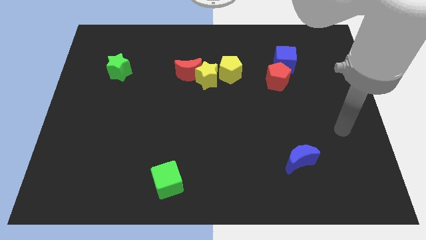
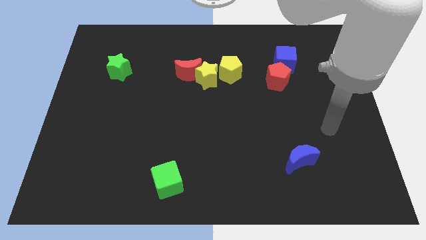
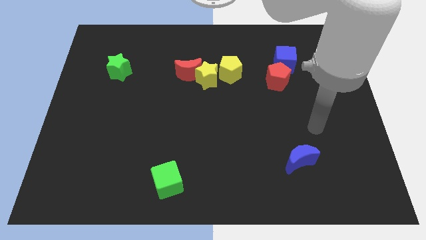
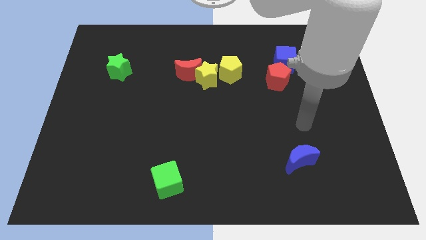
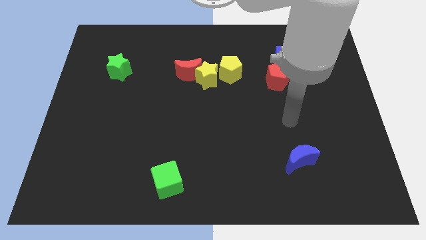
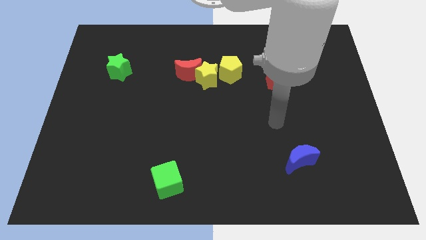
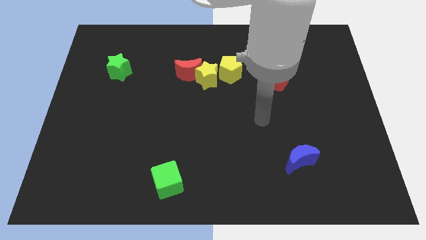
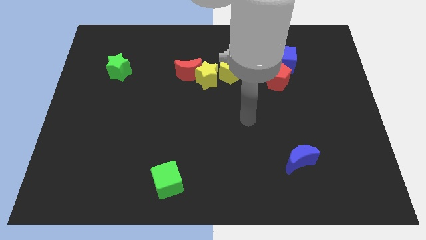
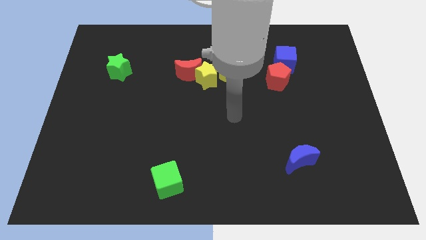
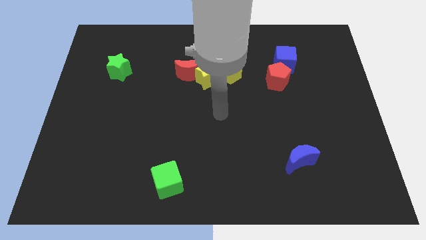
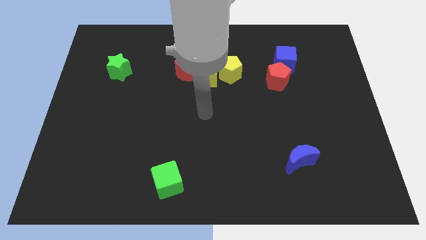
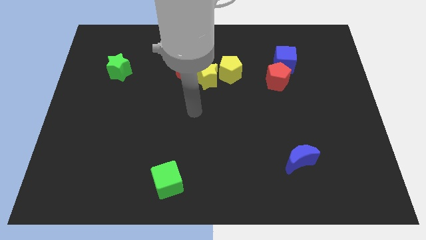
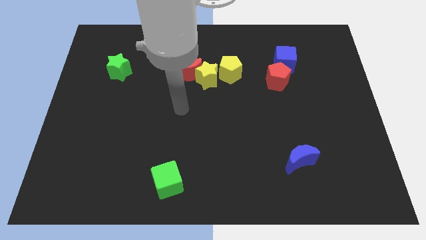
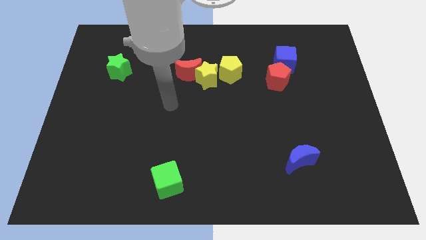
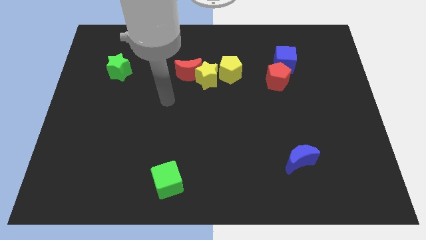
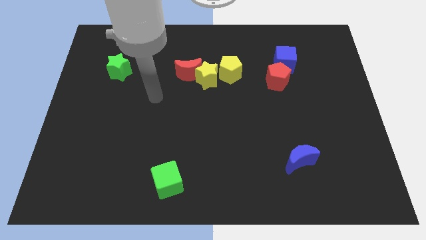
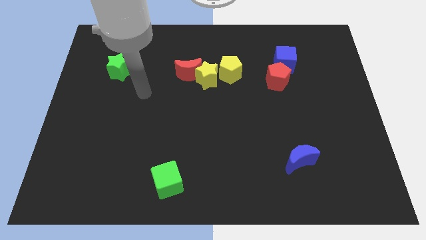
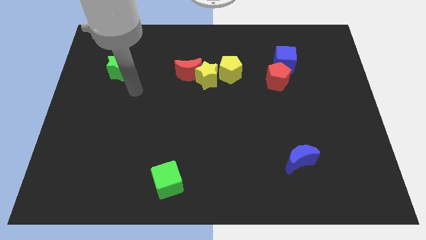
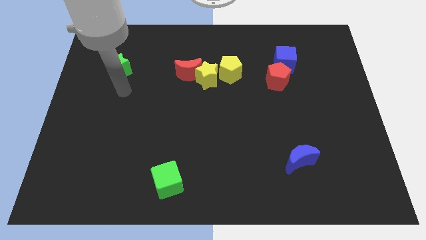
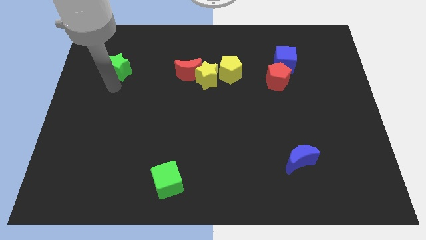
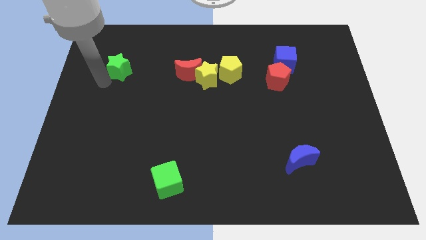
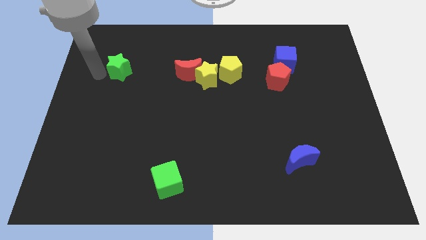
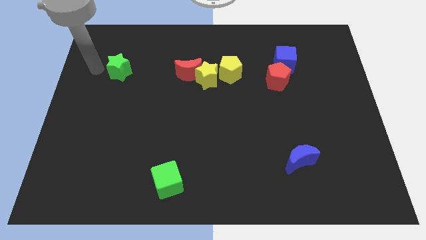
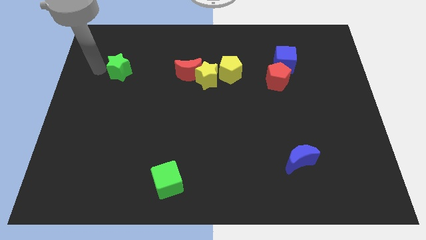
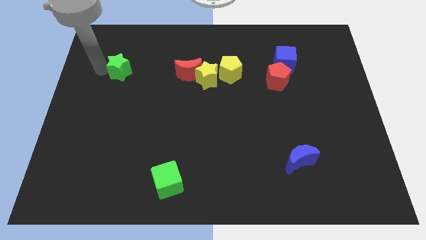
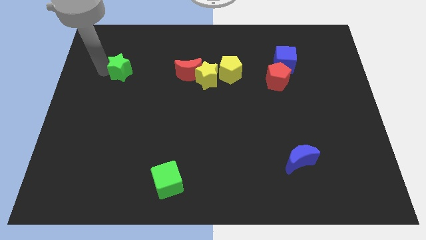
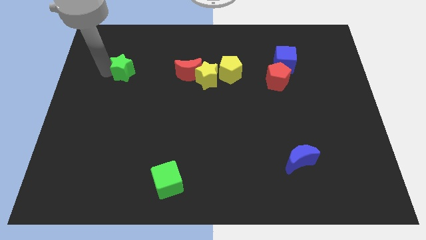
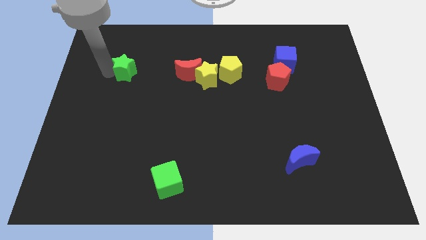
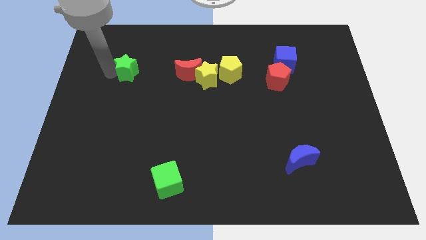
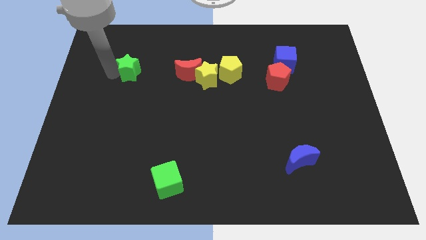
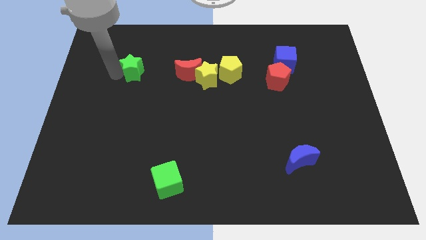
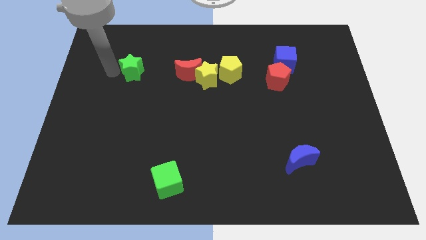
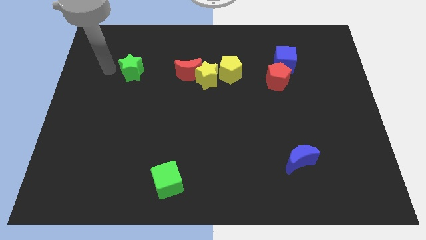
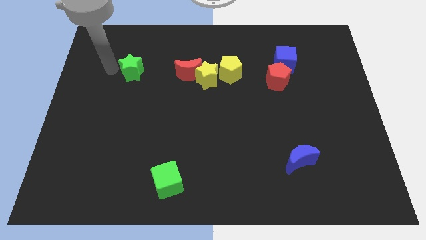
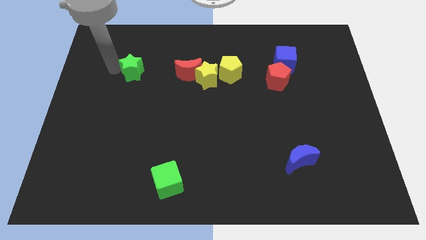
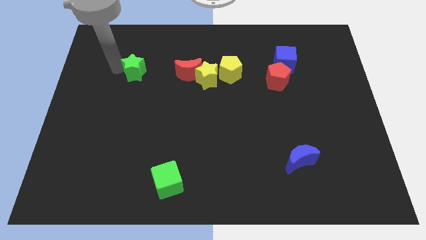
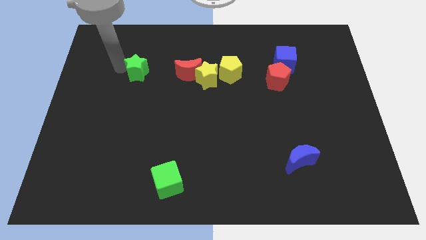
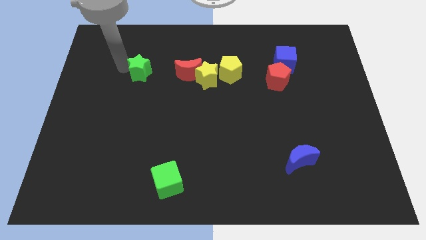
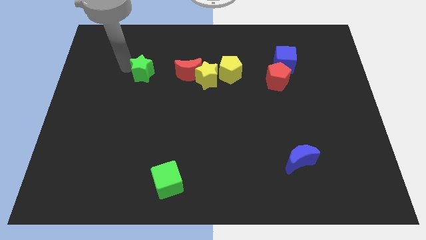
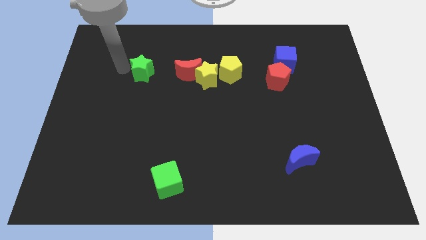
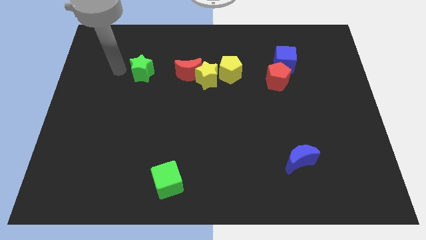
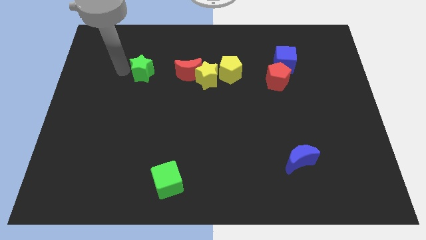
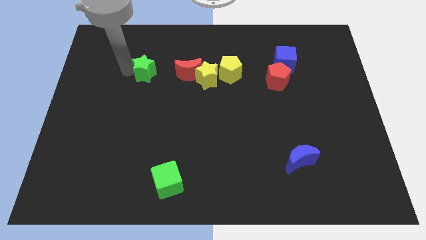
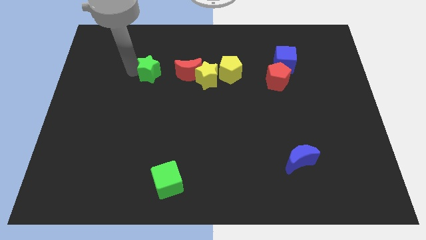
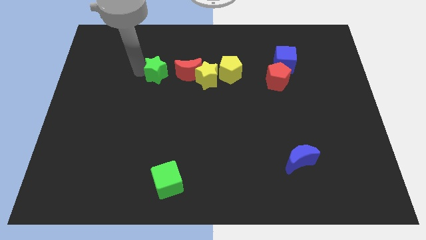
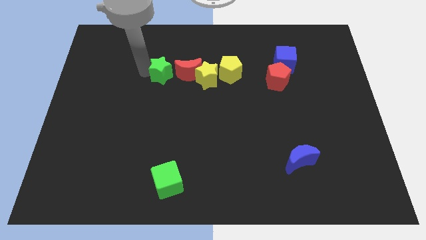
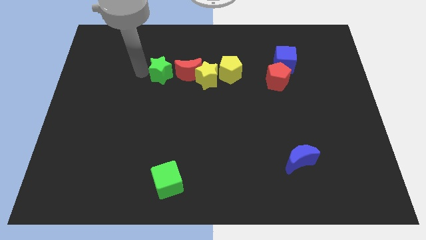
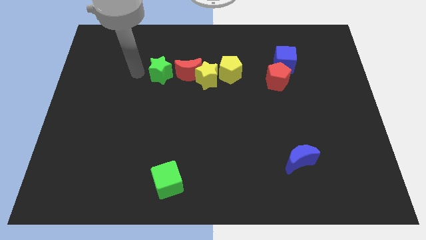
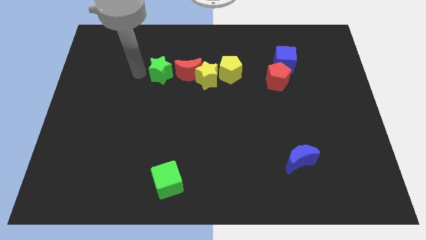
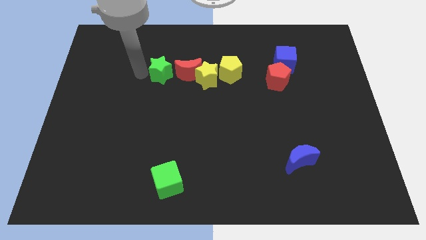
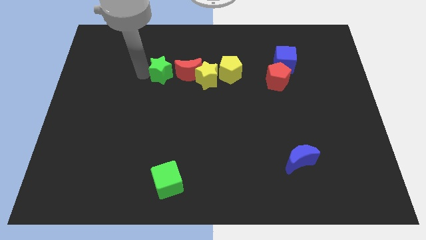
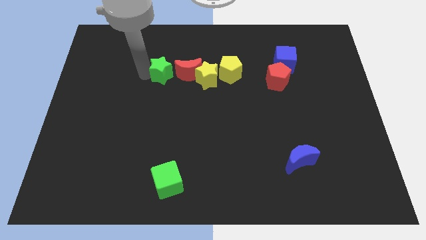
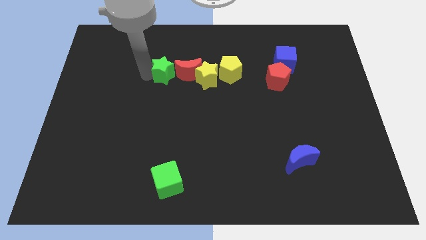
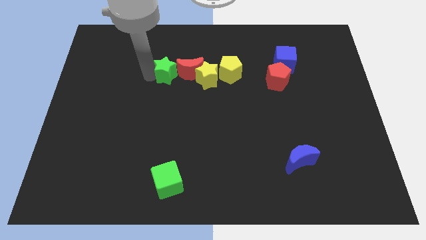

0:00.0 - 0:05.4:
push the green star towards the red moon
